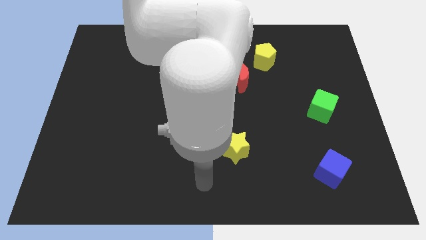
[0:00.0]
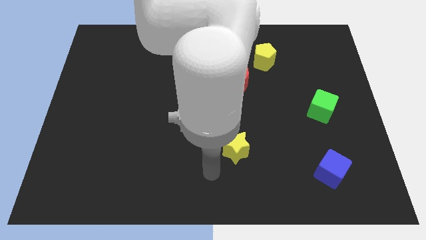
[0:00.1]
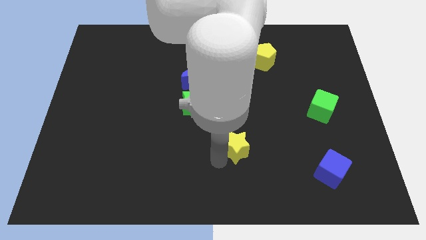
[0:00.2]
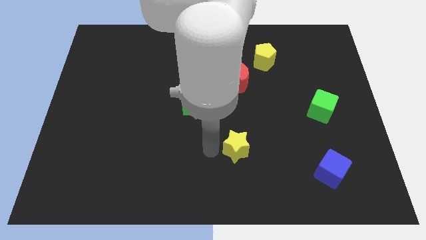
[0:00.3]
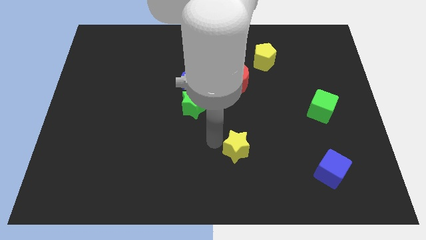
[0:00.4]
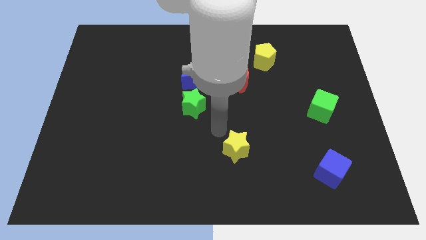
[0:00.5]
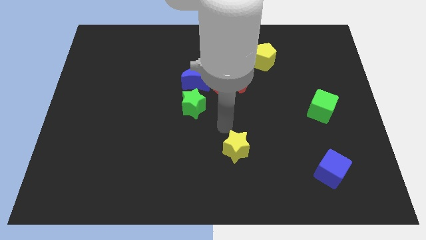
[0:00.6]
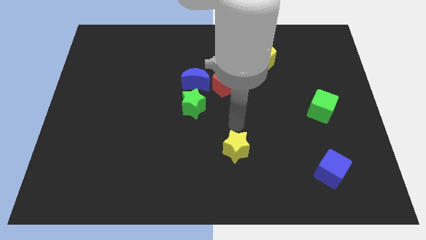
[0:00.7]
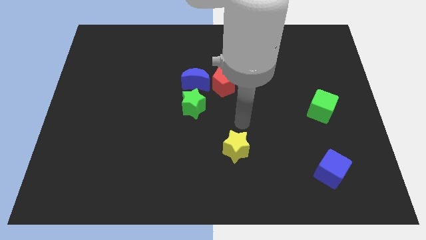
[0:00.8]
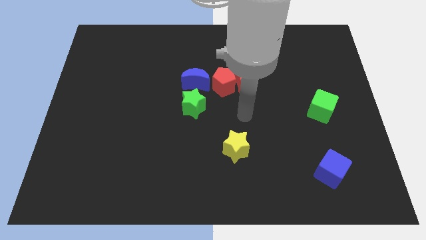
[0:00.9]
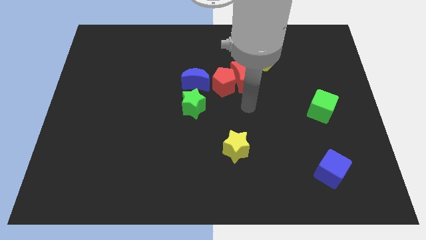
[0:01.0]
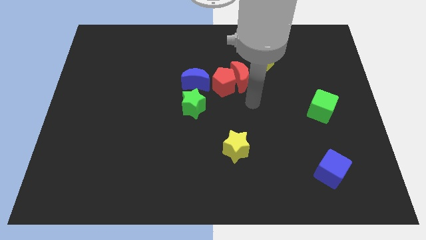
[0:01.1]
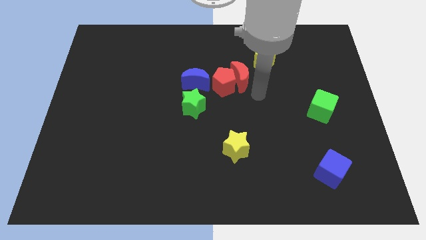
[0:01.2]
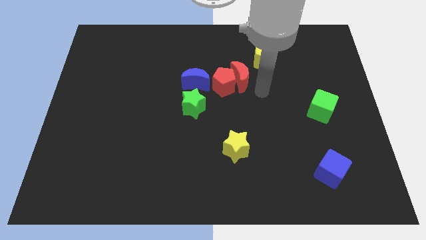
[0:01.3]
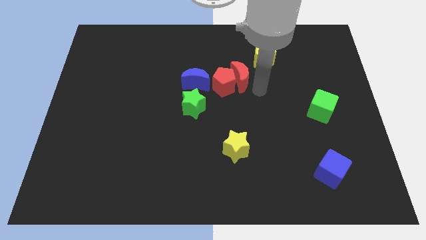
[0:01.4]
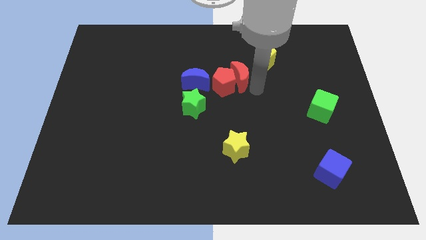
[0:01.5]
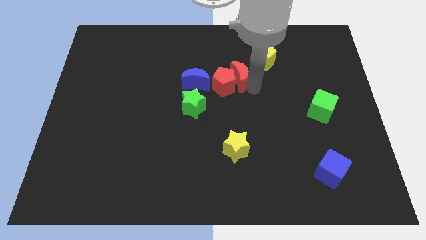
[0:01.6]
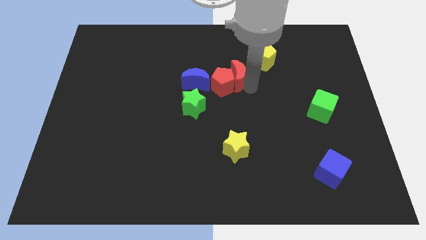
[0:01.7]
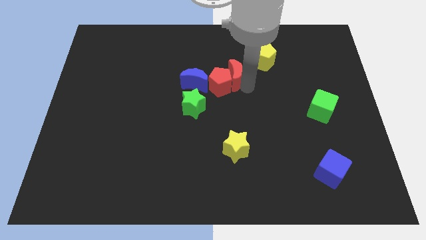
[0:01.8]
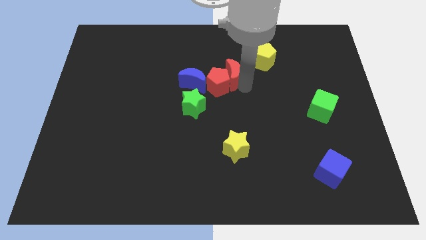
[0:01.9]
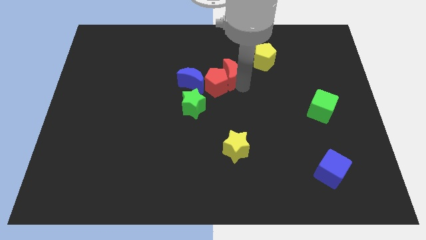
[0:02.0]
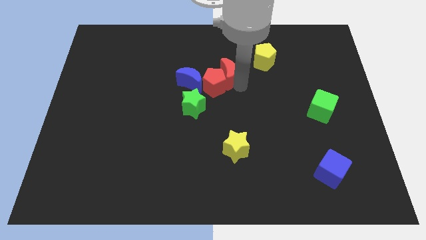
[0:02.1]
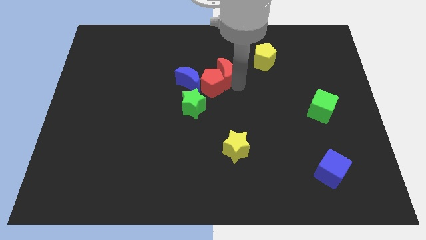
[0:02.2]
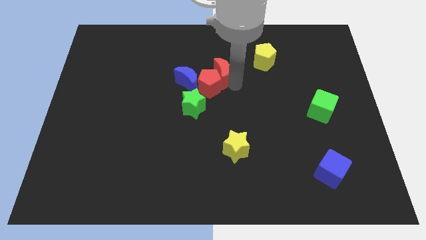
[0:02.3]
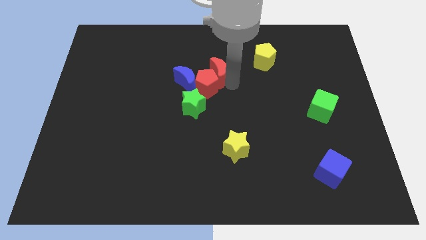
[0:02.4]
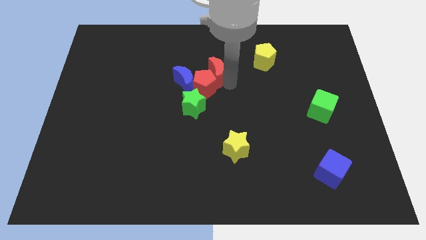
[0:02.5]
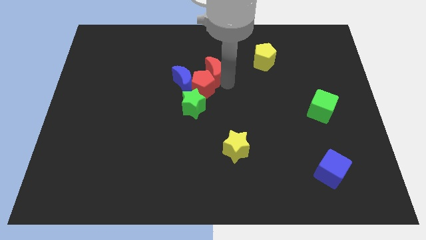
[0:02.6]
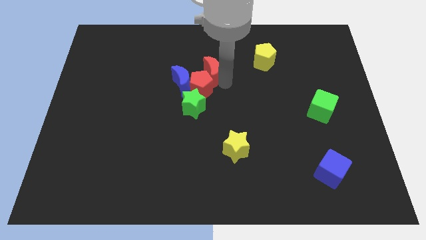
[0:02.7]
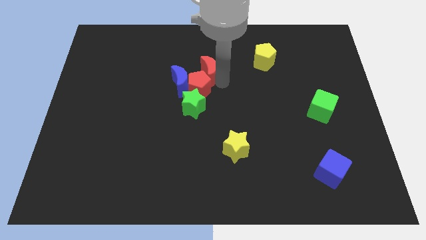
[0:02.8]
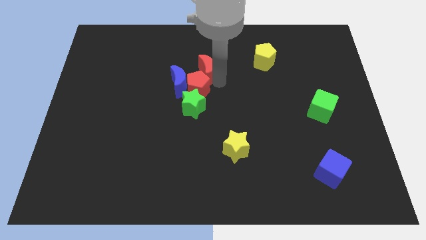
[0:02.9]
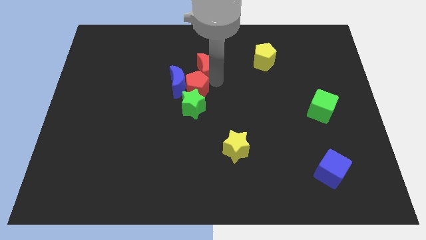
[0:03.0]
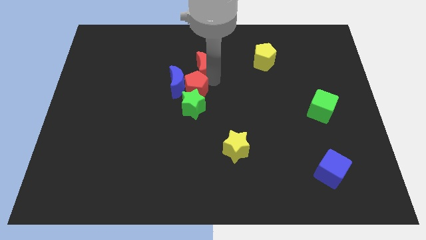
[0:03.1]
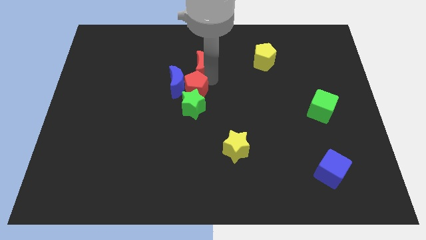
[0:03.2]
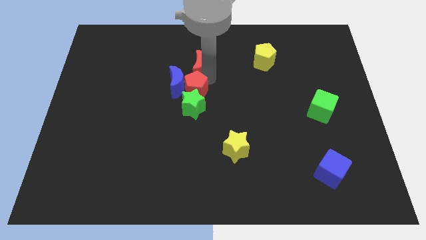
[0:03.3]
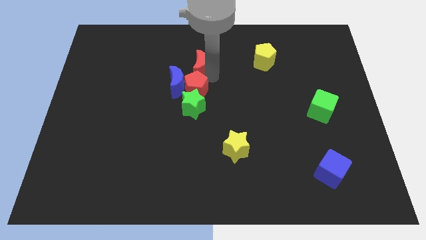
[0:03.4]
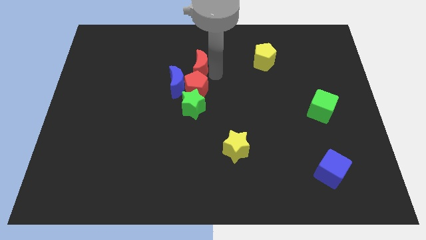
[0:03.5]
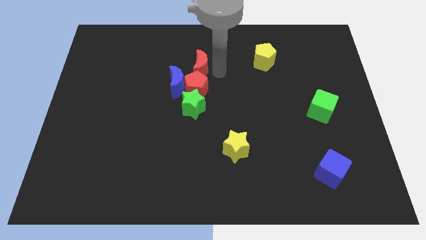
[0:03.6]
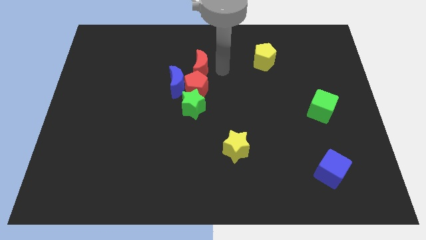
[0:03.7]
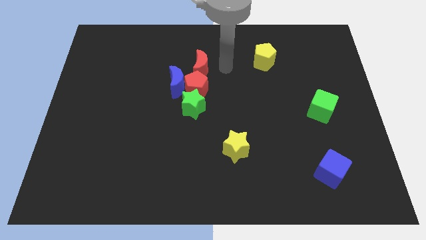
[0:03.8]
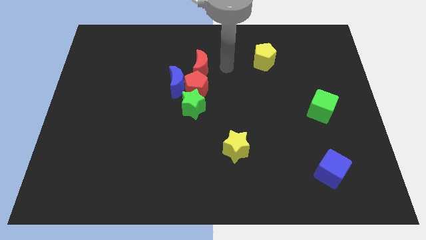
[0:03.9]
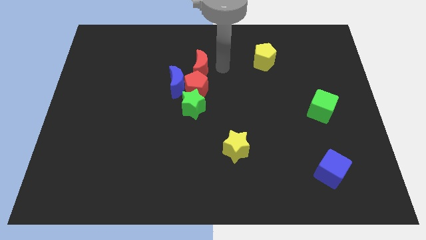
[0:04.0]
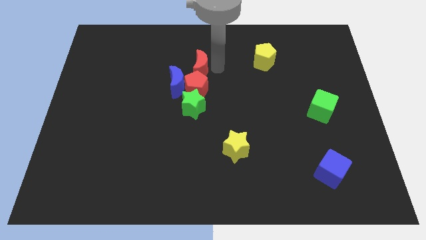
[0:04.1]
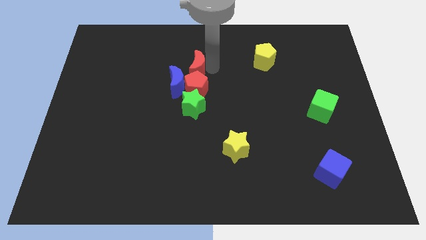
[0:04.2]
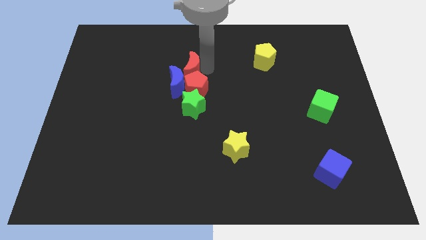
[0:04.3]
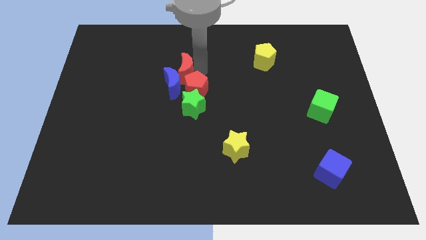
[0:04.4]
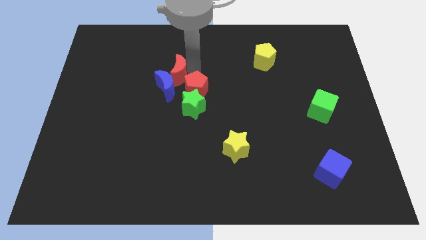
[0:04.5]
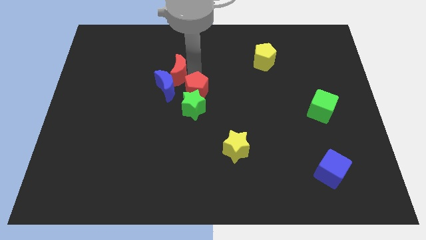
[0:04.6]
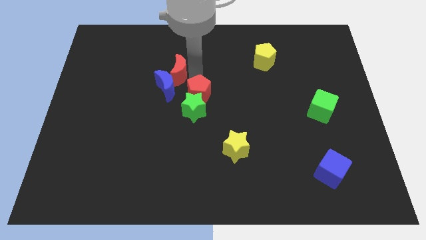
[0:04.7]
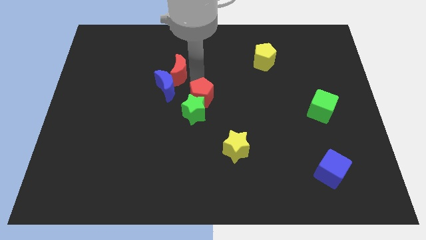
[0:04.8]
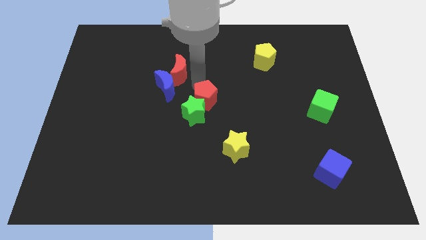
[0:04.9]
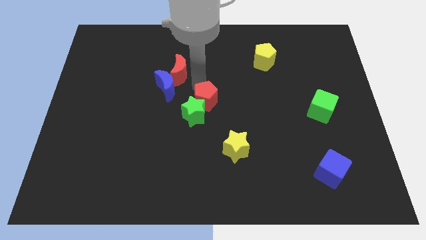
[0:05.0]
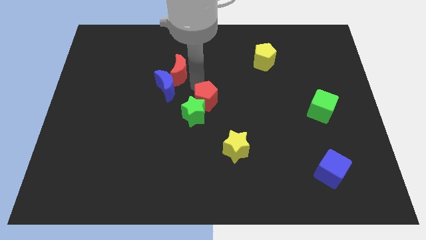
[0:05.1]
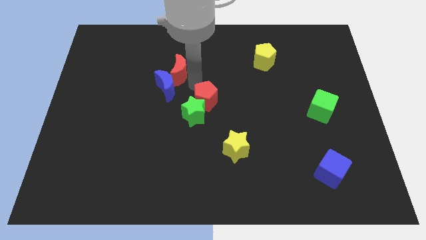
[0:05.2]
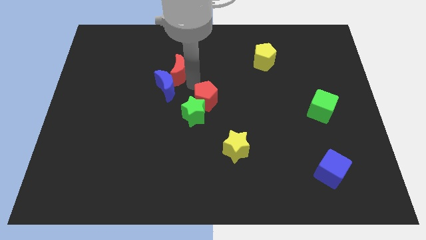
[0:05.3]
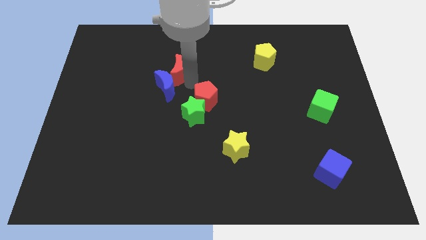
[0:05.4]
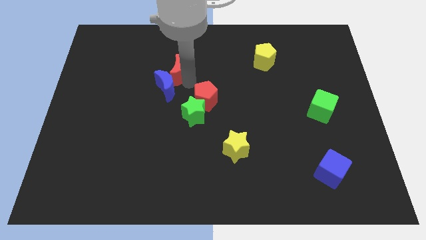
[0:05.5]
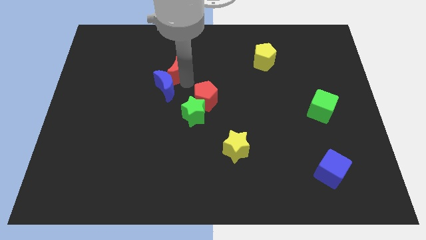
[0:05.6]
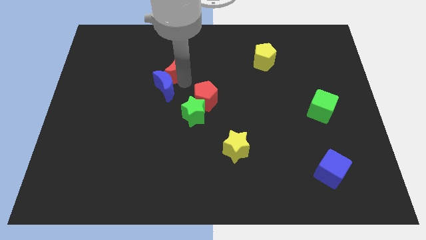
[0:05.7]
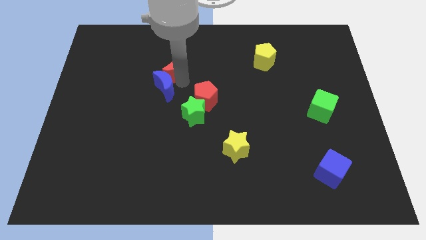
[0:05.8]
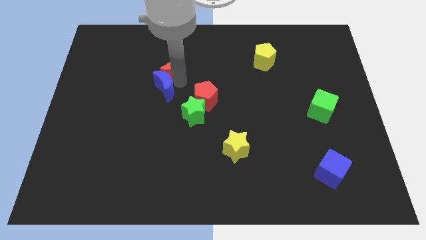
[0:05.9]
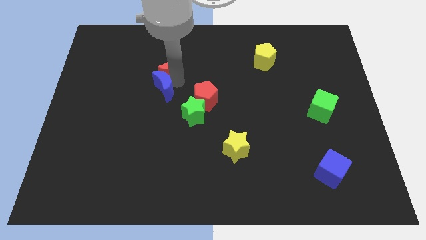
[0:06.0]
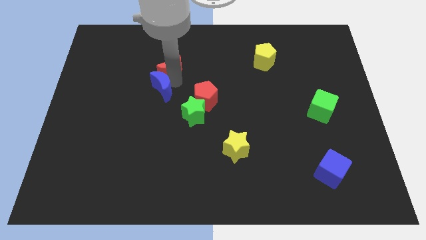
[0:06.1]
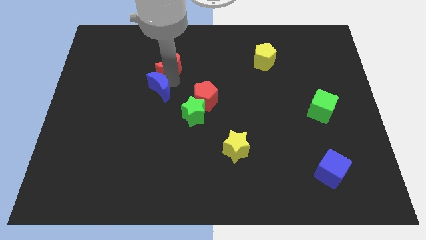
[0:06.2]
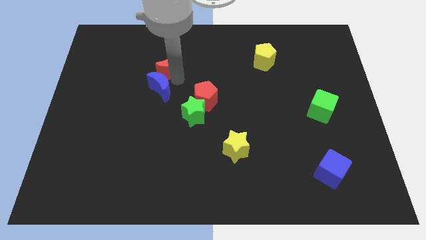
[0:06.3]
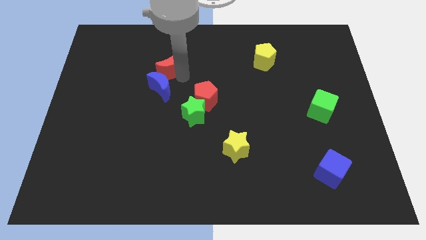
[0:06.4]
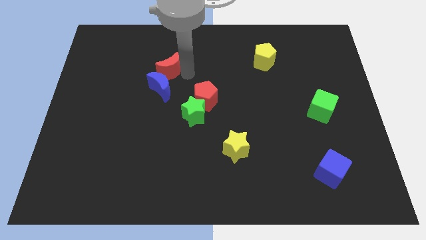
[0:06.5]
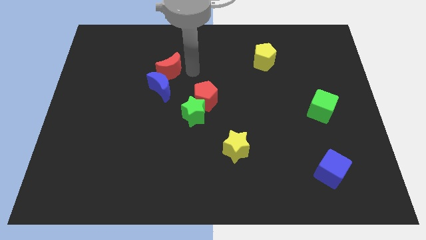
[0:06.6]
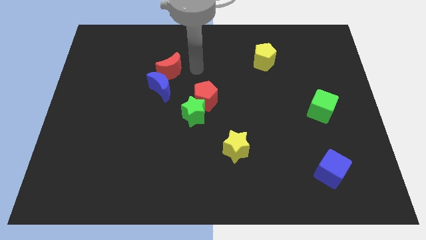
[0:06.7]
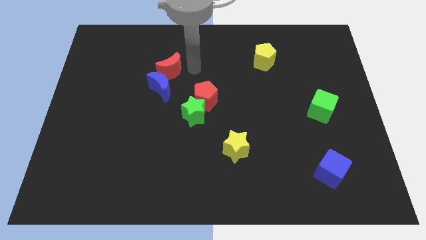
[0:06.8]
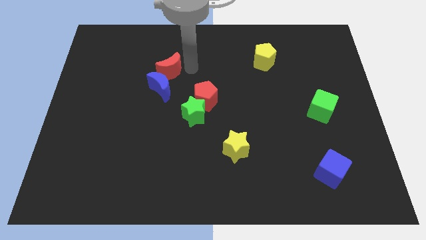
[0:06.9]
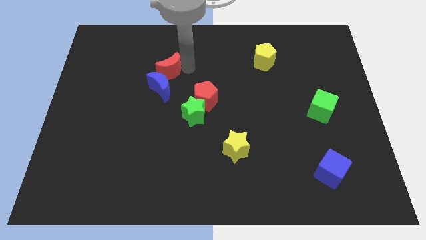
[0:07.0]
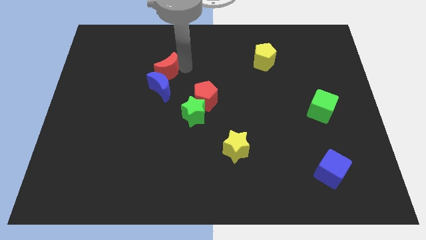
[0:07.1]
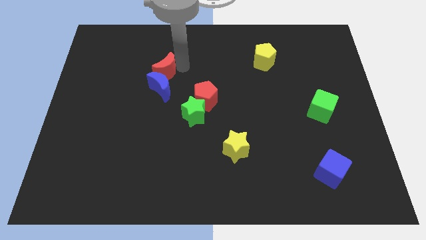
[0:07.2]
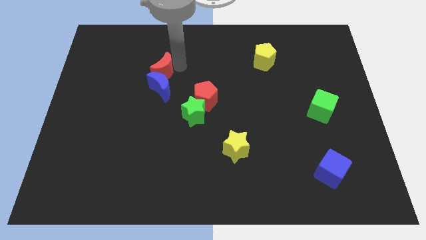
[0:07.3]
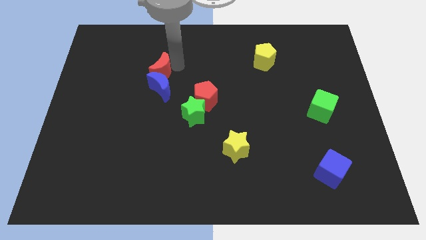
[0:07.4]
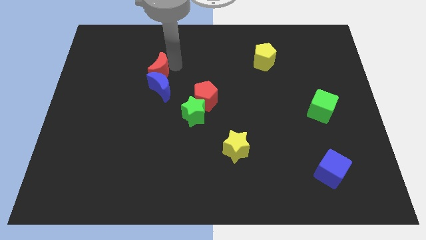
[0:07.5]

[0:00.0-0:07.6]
slide the red moon left
